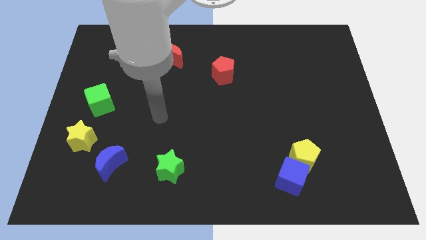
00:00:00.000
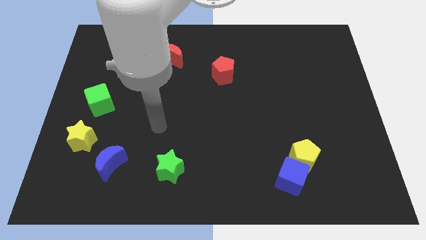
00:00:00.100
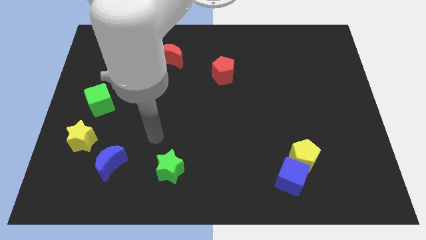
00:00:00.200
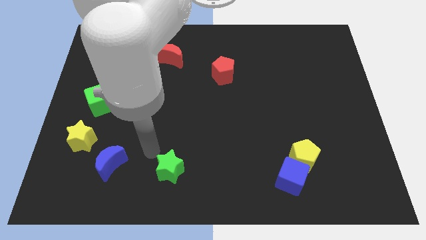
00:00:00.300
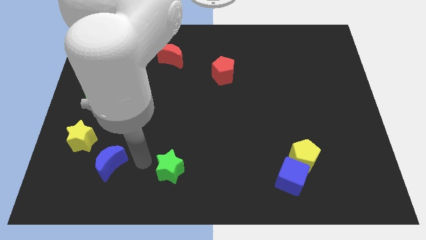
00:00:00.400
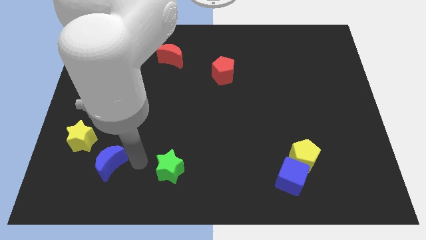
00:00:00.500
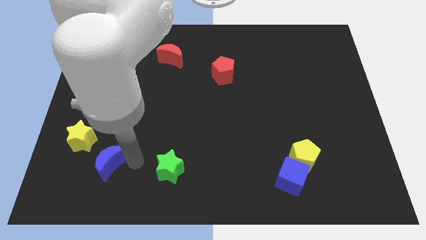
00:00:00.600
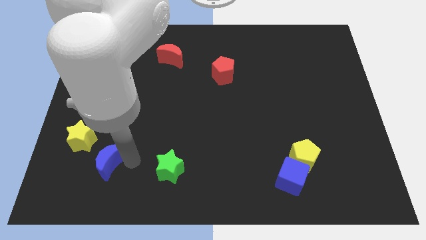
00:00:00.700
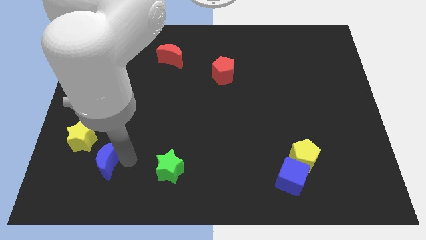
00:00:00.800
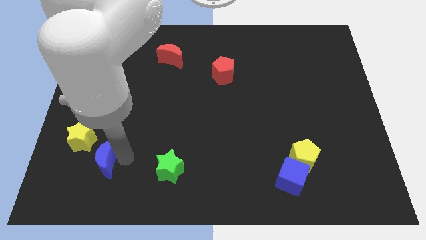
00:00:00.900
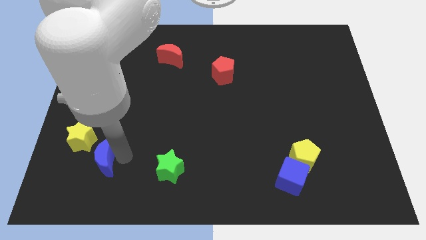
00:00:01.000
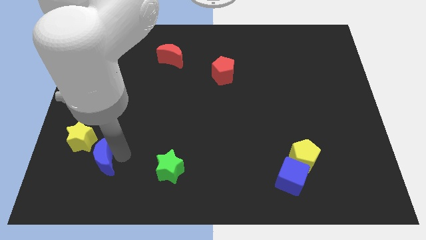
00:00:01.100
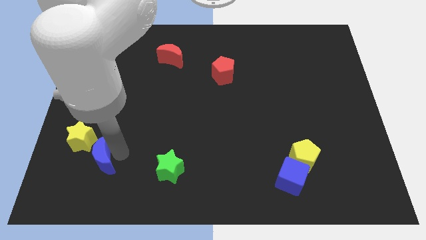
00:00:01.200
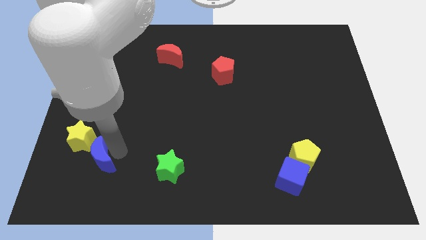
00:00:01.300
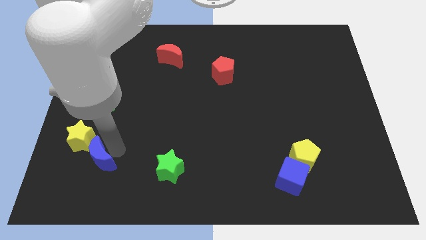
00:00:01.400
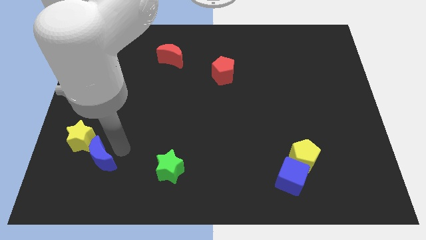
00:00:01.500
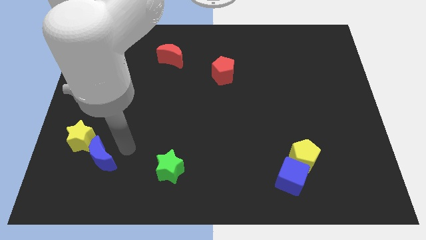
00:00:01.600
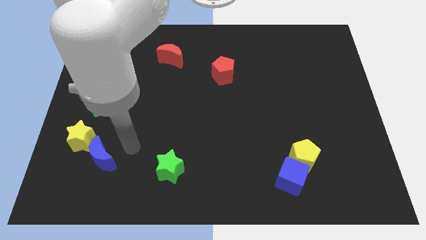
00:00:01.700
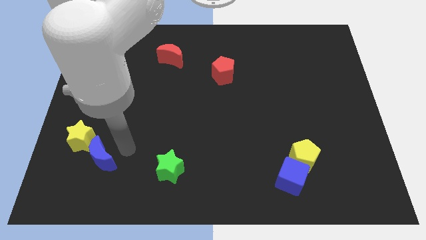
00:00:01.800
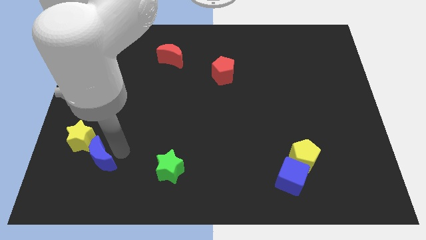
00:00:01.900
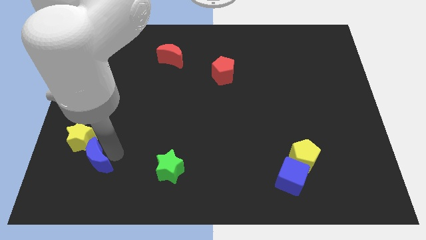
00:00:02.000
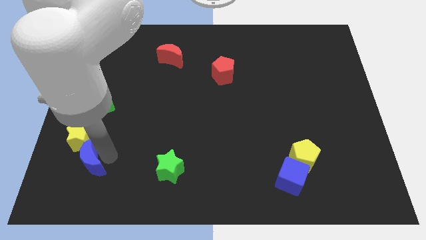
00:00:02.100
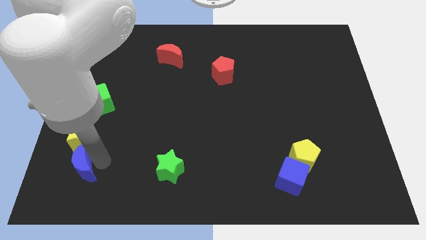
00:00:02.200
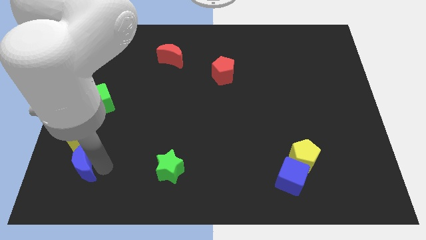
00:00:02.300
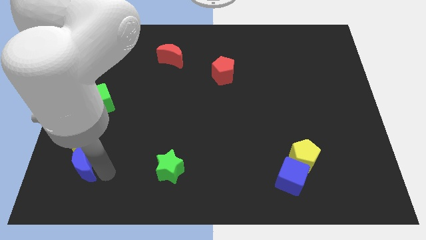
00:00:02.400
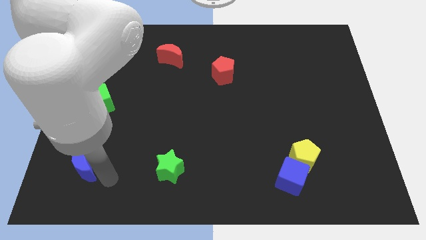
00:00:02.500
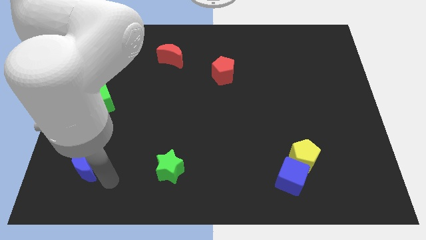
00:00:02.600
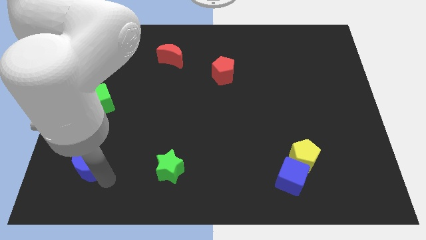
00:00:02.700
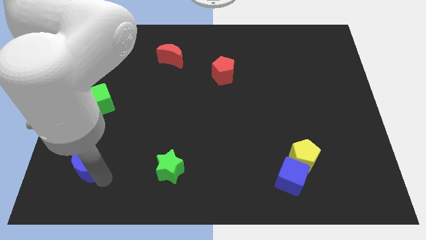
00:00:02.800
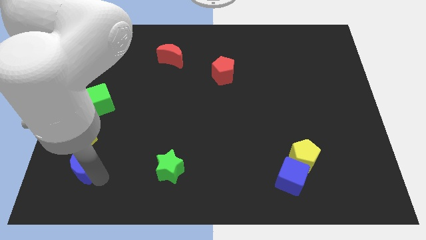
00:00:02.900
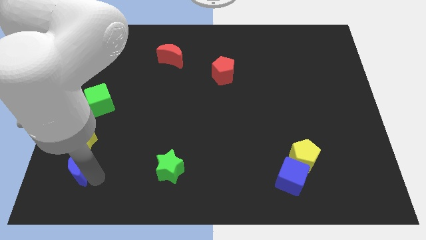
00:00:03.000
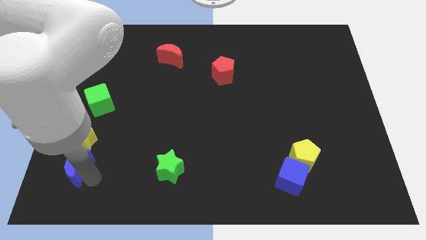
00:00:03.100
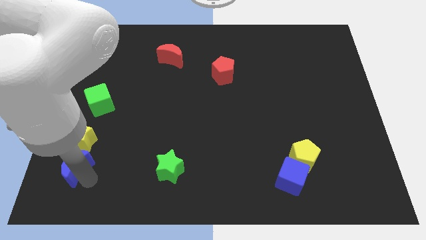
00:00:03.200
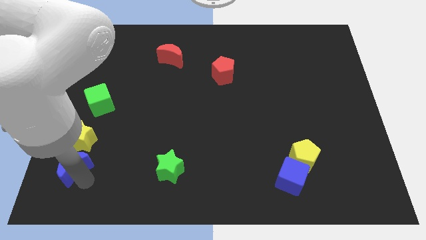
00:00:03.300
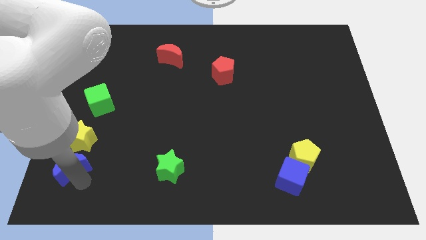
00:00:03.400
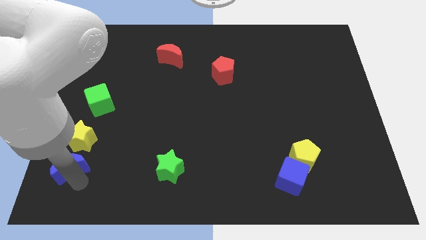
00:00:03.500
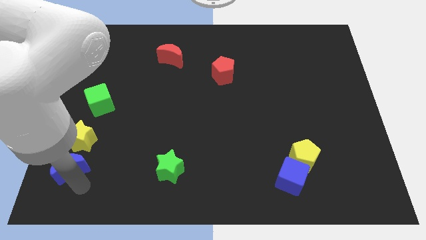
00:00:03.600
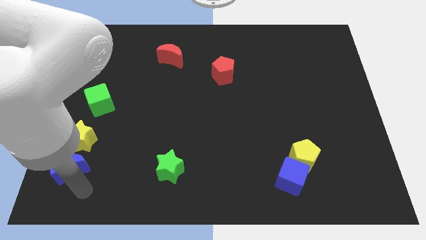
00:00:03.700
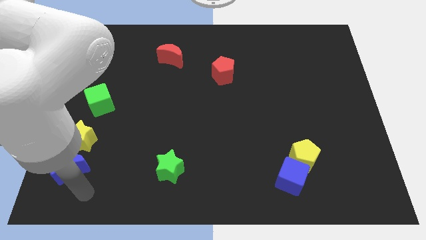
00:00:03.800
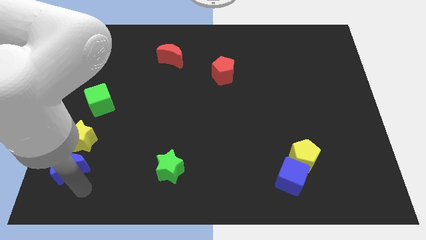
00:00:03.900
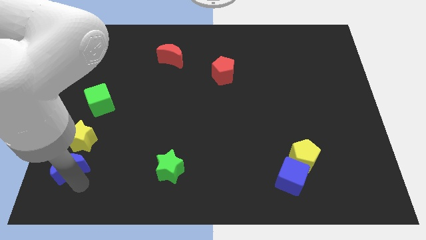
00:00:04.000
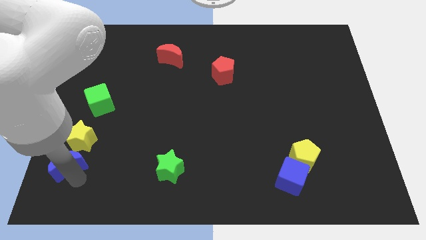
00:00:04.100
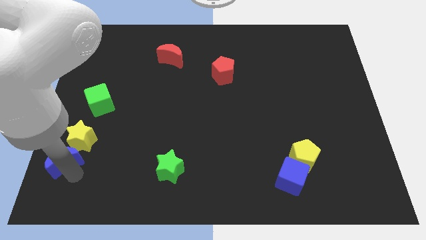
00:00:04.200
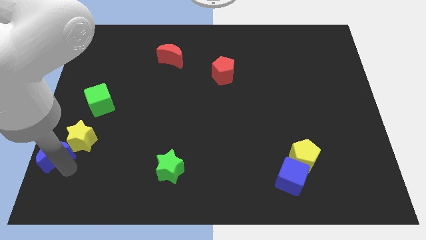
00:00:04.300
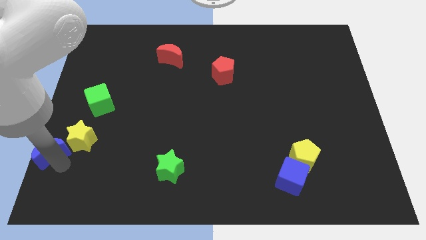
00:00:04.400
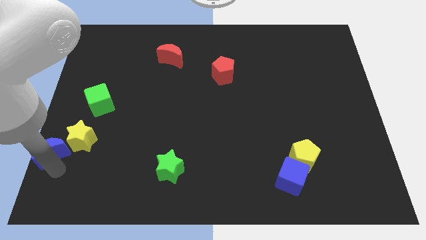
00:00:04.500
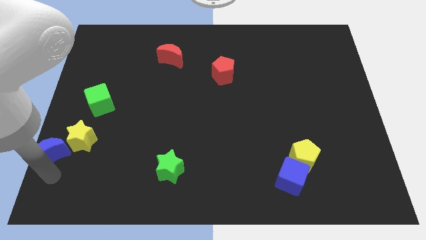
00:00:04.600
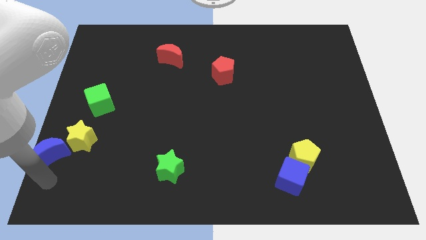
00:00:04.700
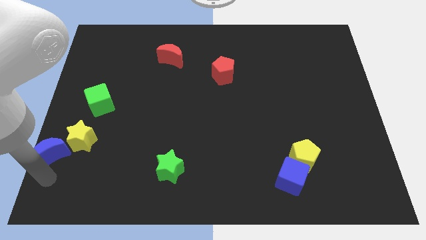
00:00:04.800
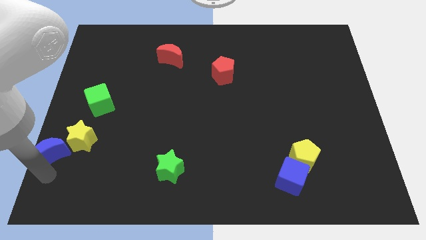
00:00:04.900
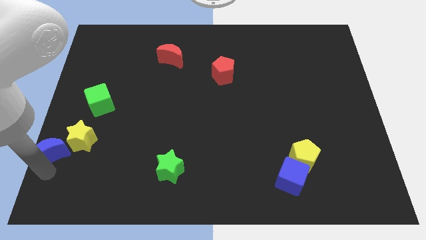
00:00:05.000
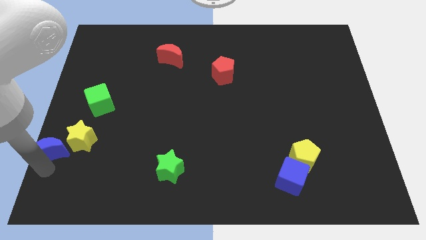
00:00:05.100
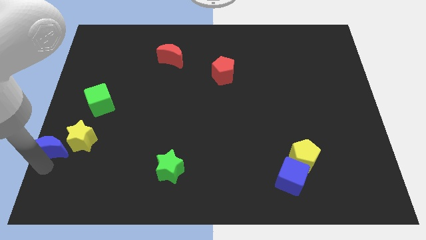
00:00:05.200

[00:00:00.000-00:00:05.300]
put the blue moon to the center left

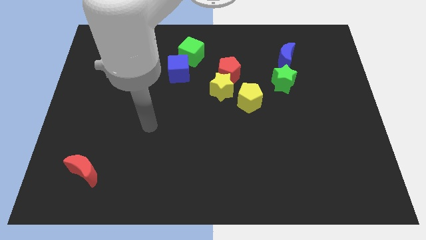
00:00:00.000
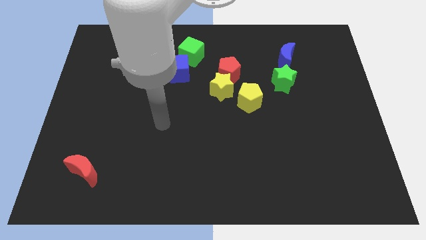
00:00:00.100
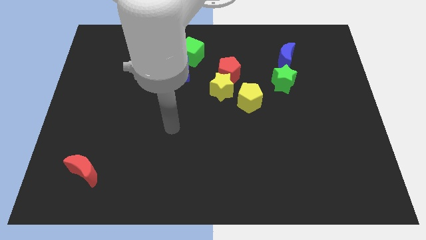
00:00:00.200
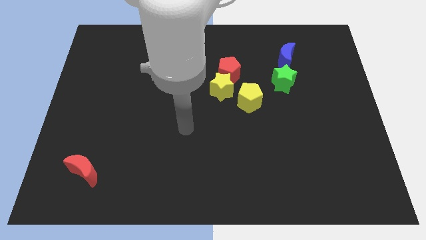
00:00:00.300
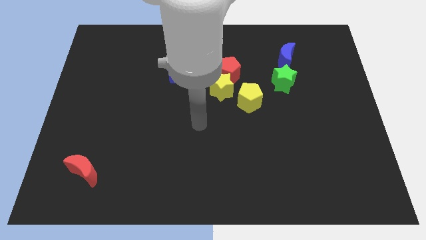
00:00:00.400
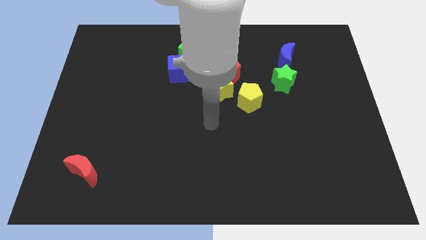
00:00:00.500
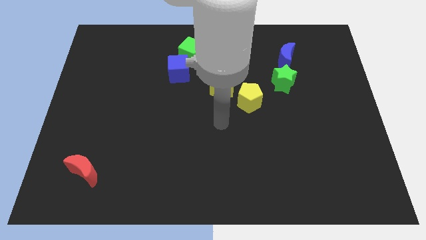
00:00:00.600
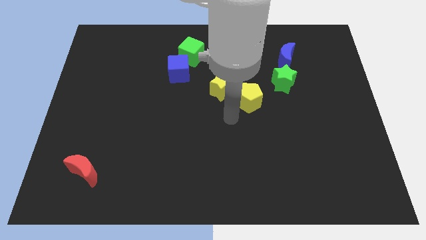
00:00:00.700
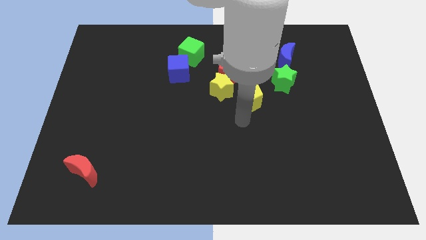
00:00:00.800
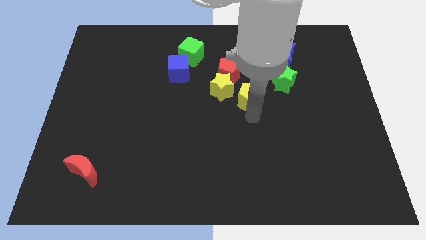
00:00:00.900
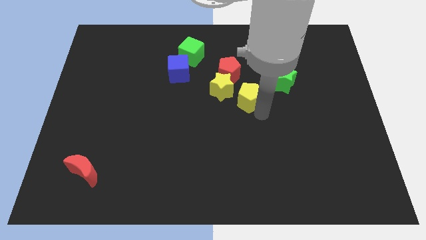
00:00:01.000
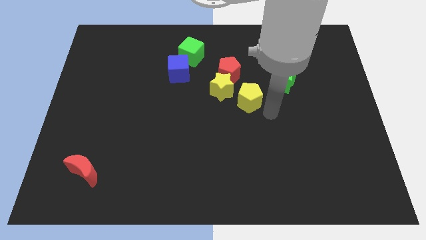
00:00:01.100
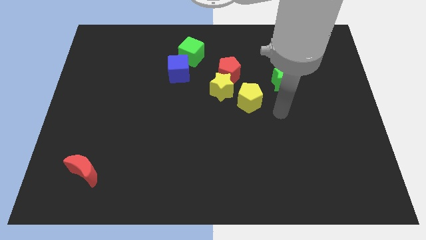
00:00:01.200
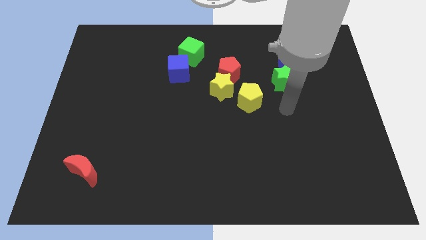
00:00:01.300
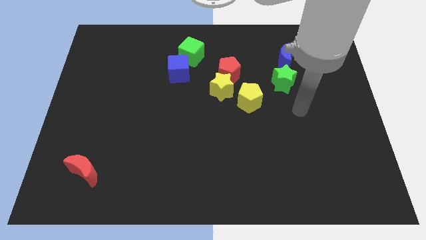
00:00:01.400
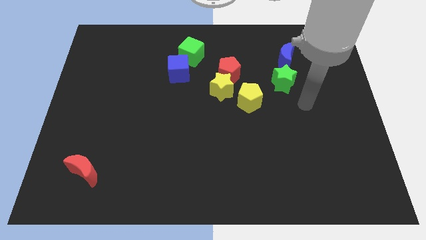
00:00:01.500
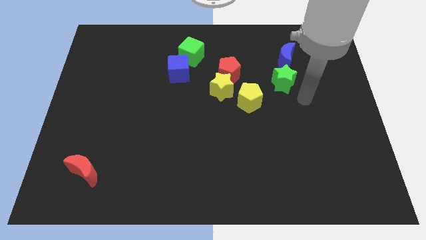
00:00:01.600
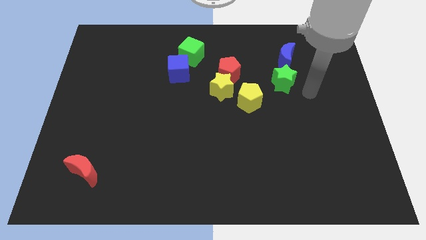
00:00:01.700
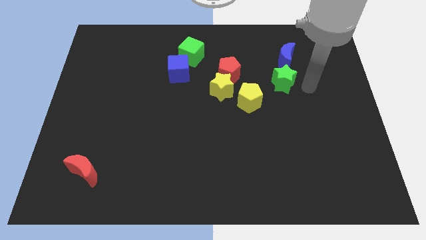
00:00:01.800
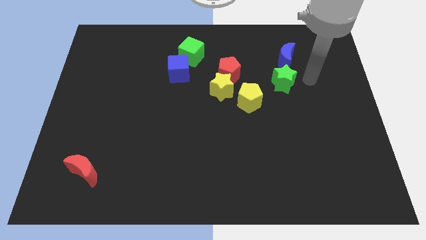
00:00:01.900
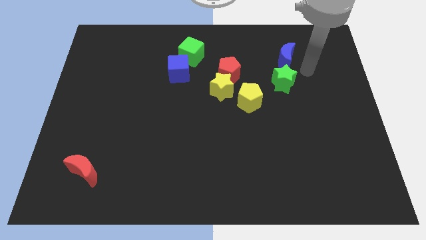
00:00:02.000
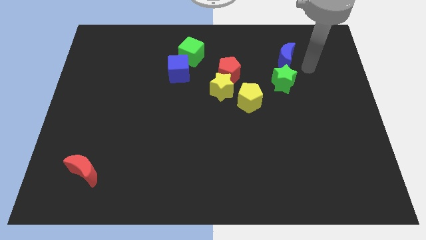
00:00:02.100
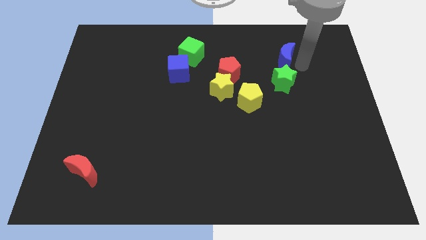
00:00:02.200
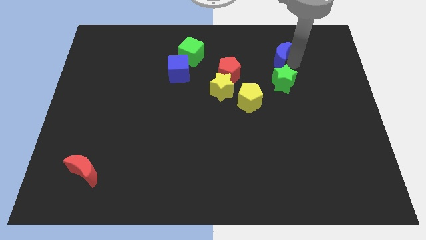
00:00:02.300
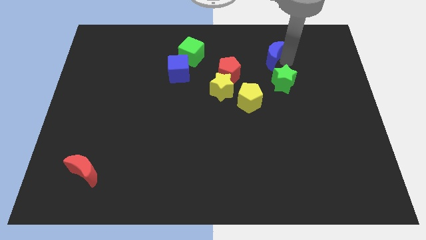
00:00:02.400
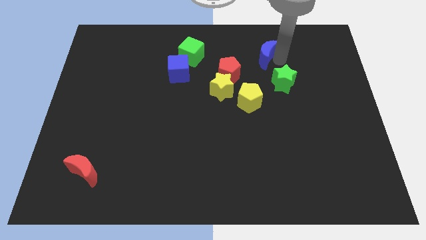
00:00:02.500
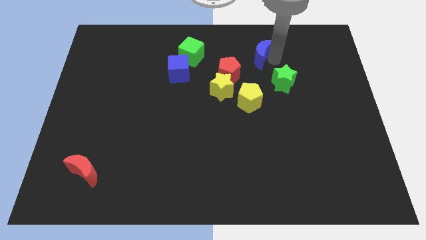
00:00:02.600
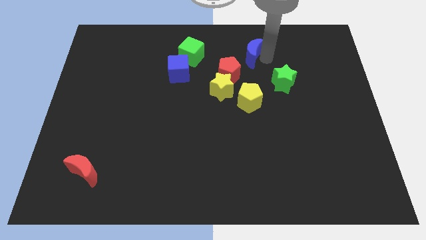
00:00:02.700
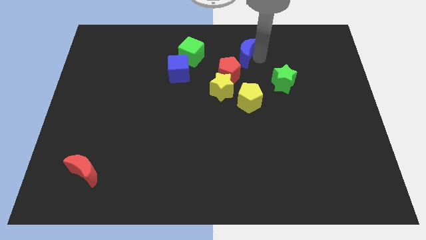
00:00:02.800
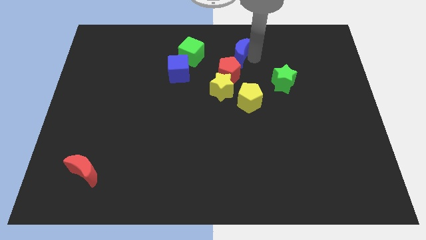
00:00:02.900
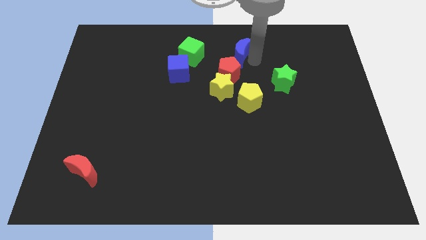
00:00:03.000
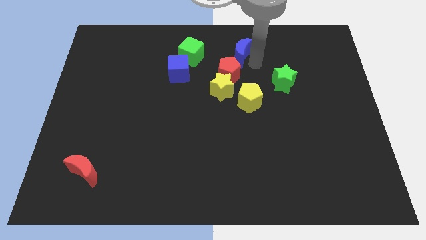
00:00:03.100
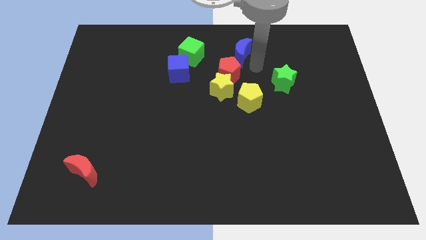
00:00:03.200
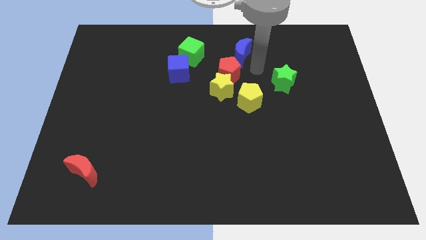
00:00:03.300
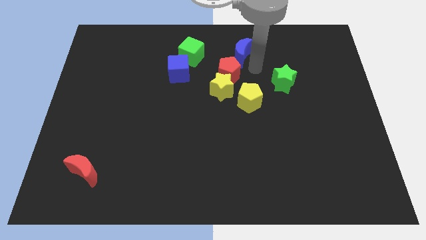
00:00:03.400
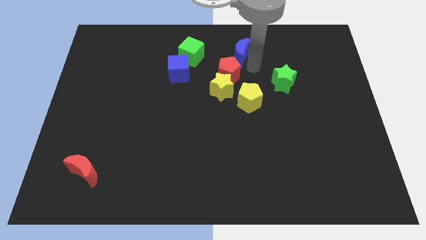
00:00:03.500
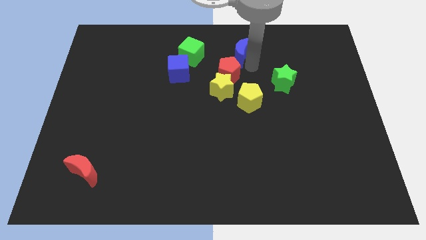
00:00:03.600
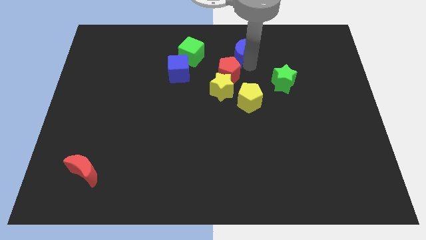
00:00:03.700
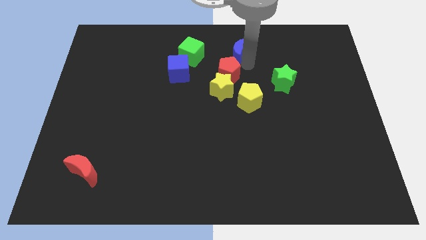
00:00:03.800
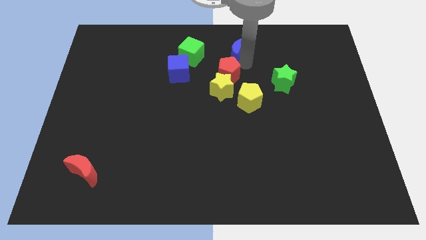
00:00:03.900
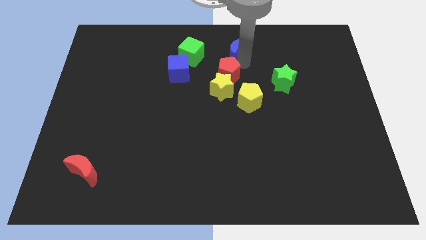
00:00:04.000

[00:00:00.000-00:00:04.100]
slide the blue moon to the top
